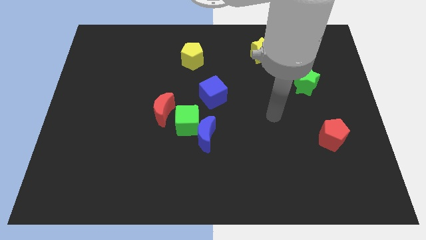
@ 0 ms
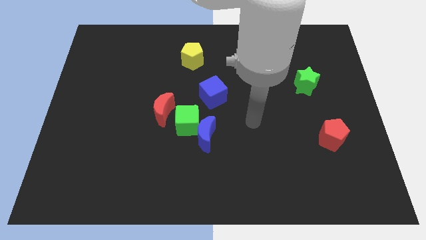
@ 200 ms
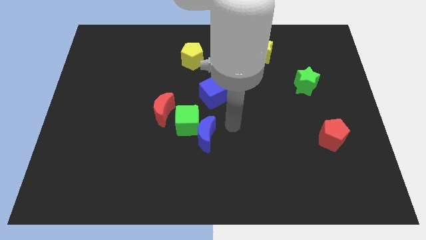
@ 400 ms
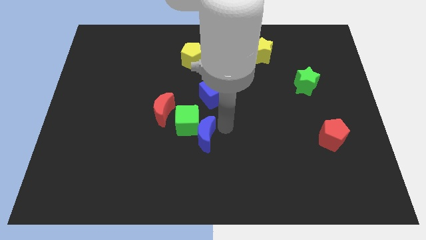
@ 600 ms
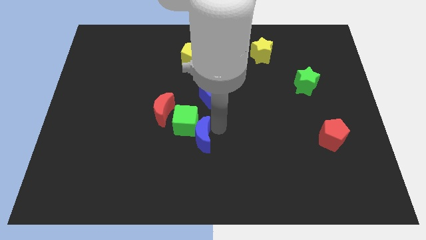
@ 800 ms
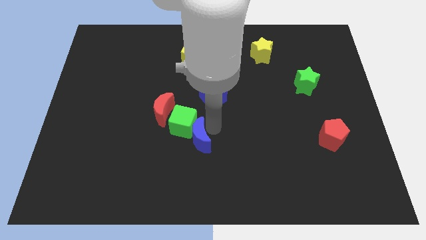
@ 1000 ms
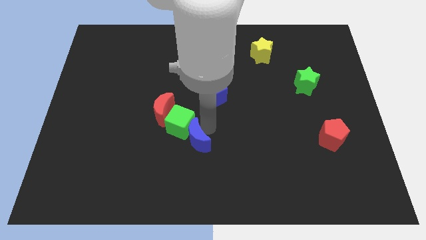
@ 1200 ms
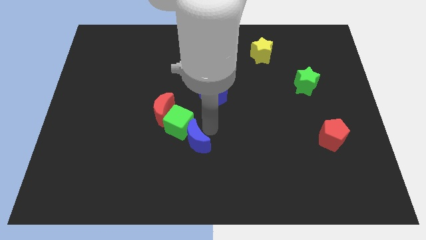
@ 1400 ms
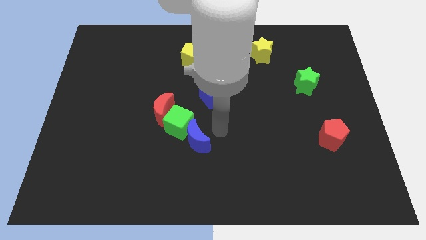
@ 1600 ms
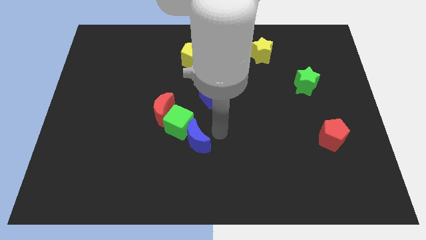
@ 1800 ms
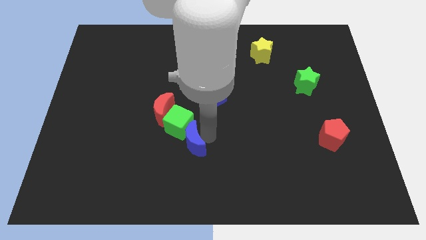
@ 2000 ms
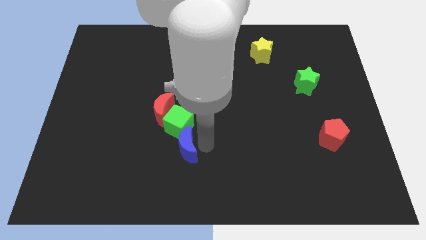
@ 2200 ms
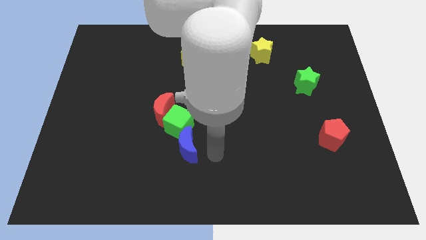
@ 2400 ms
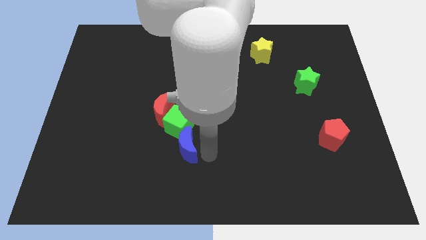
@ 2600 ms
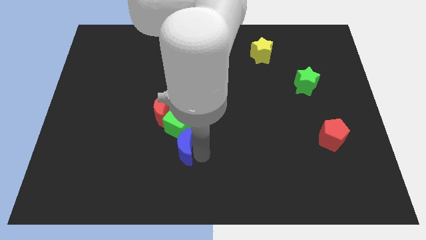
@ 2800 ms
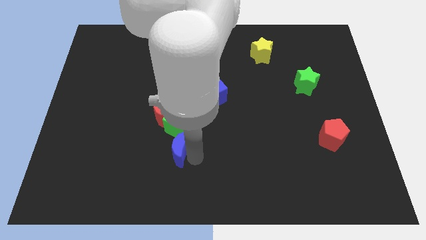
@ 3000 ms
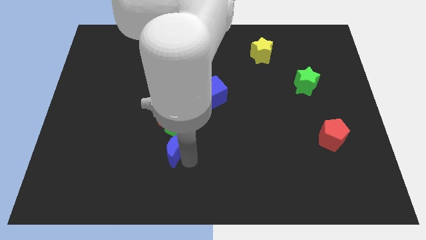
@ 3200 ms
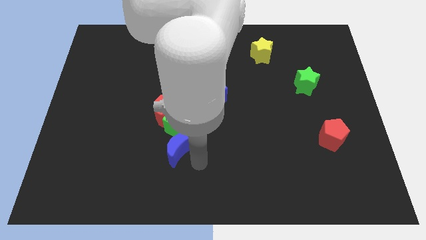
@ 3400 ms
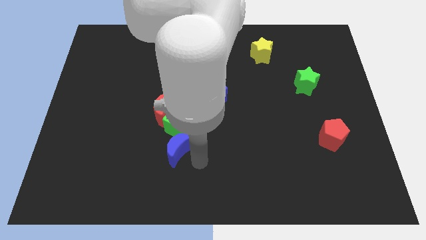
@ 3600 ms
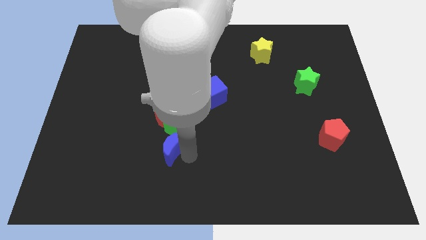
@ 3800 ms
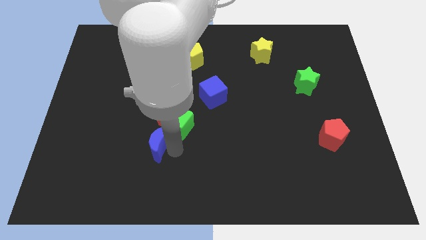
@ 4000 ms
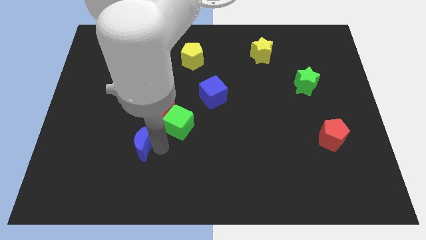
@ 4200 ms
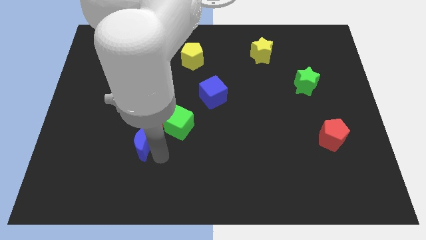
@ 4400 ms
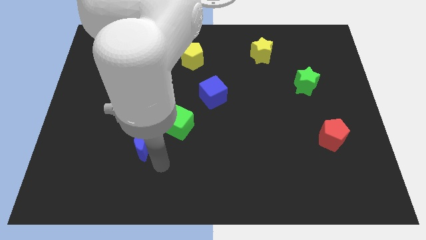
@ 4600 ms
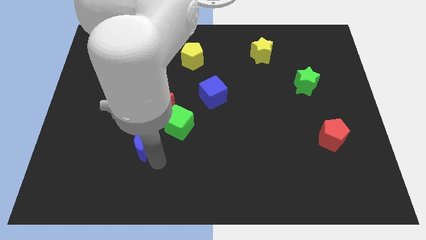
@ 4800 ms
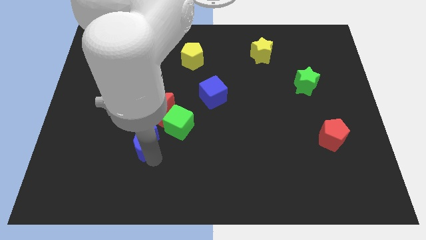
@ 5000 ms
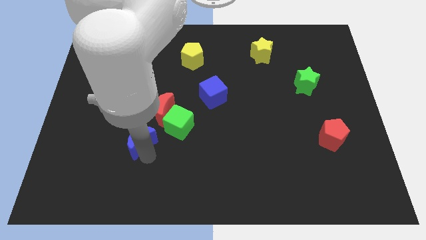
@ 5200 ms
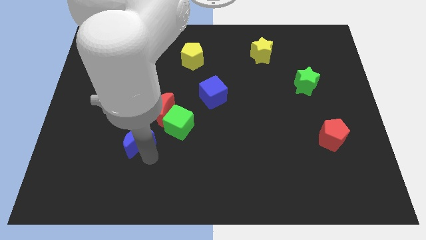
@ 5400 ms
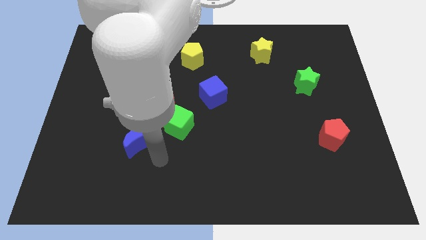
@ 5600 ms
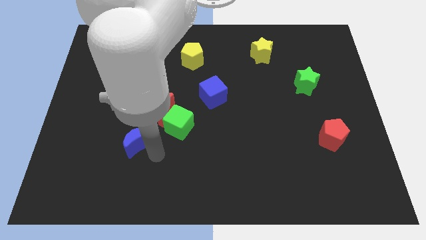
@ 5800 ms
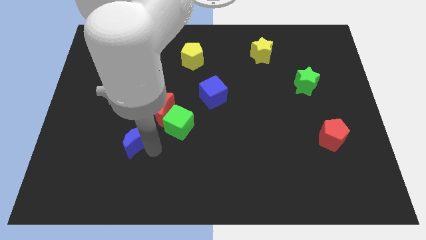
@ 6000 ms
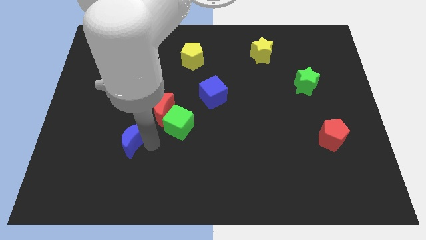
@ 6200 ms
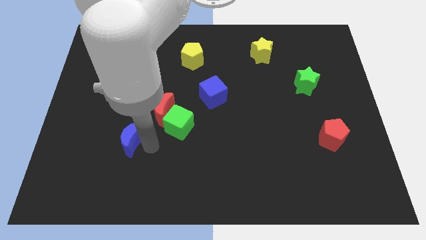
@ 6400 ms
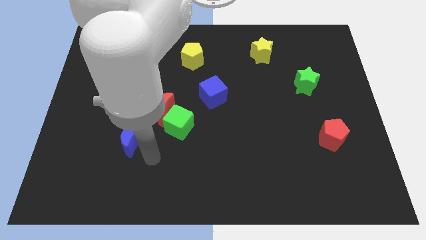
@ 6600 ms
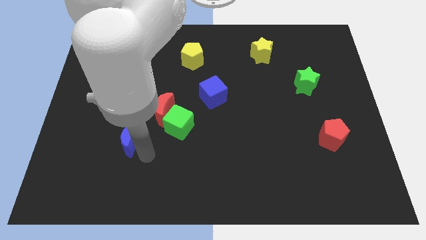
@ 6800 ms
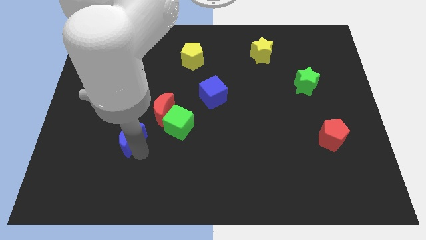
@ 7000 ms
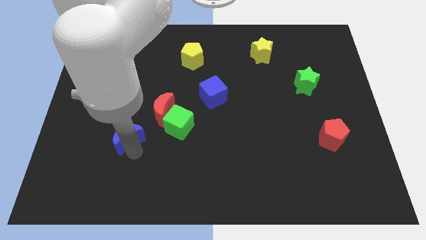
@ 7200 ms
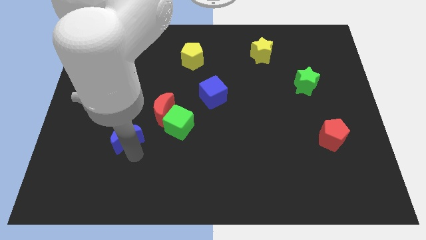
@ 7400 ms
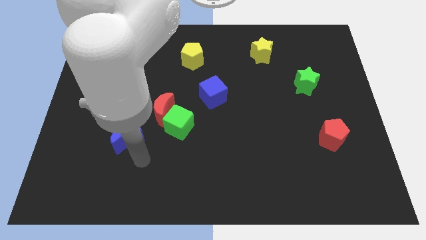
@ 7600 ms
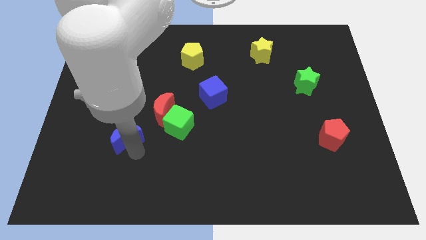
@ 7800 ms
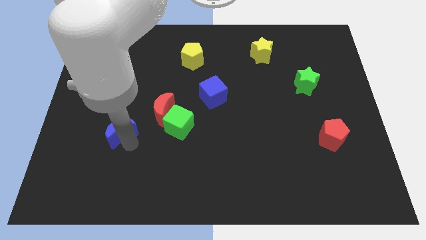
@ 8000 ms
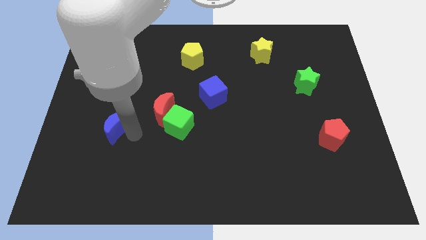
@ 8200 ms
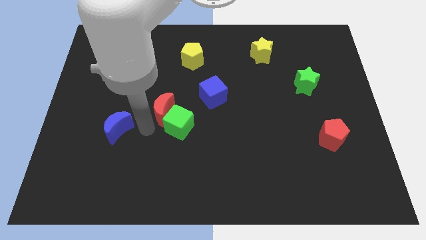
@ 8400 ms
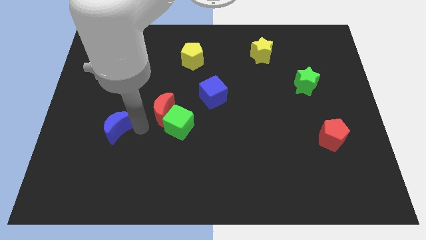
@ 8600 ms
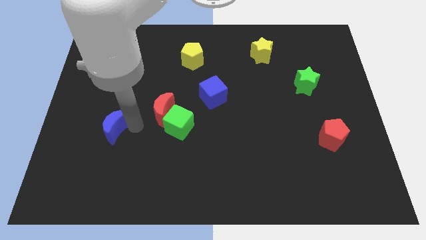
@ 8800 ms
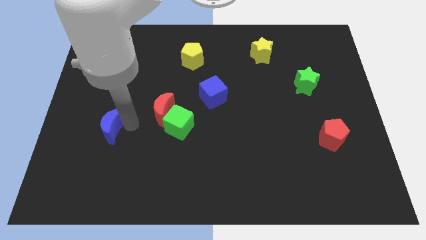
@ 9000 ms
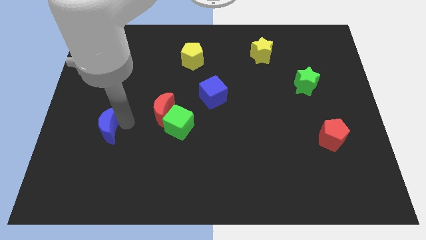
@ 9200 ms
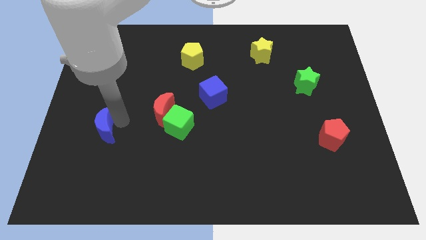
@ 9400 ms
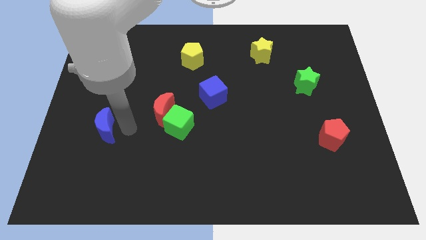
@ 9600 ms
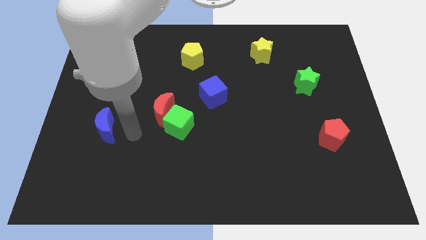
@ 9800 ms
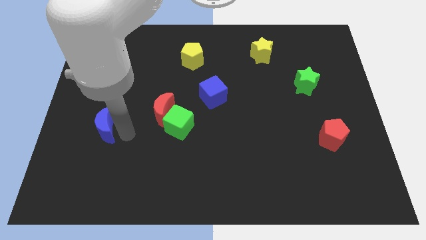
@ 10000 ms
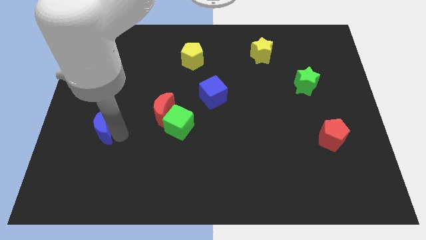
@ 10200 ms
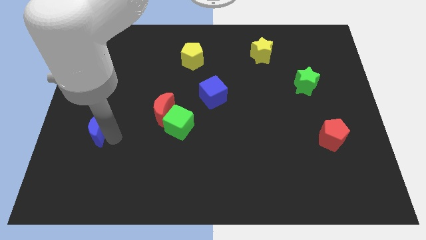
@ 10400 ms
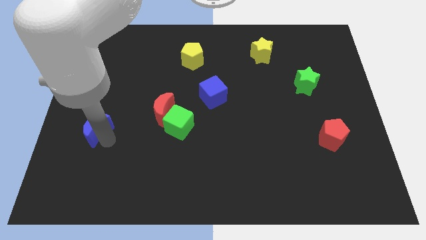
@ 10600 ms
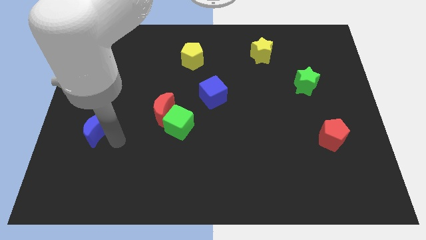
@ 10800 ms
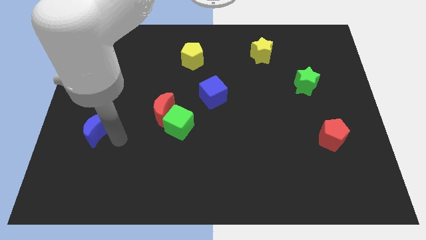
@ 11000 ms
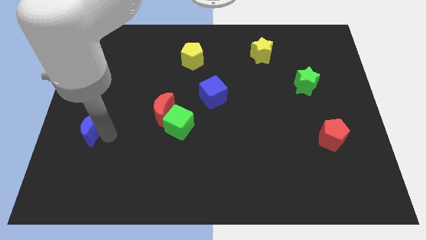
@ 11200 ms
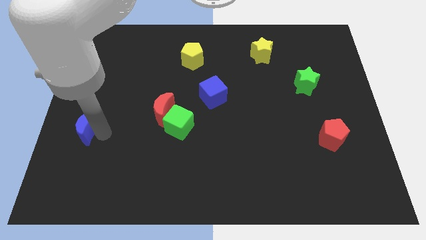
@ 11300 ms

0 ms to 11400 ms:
put the blue moon to the left side

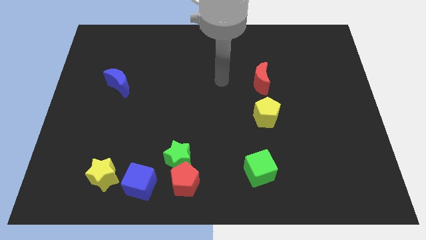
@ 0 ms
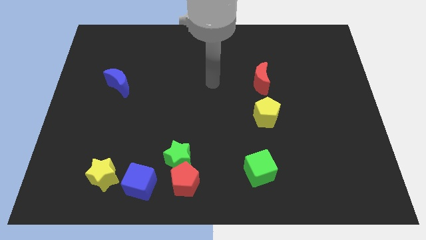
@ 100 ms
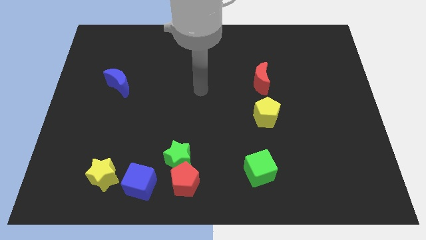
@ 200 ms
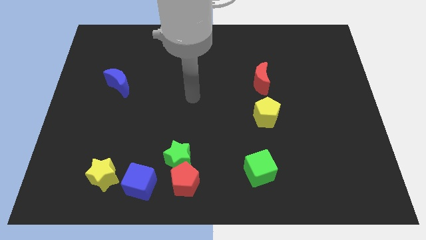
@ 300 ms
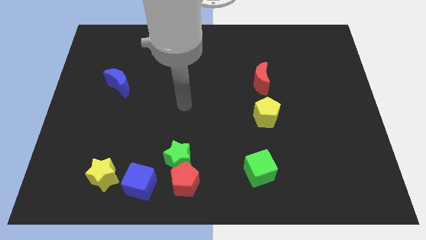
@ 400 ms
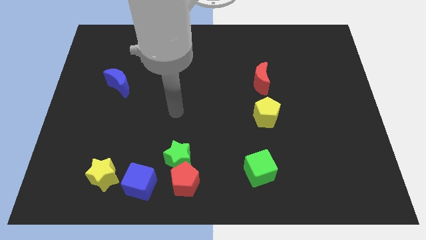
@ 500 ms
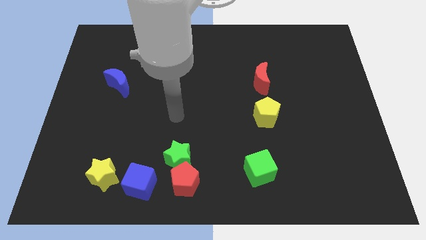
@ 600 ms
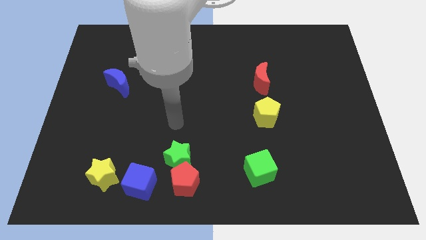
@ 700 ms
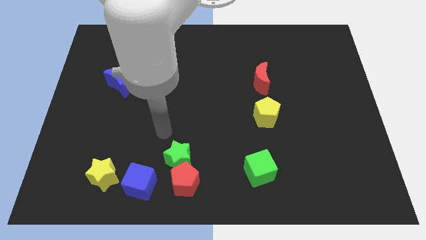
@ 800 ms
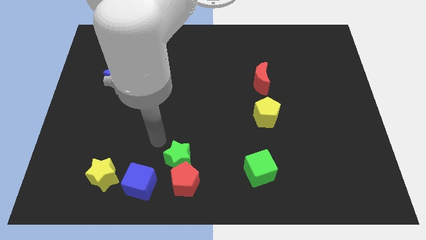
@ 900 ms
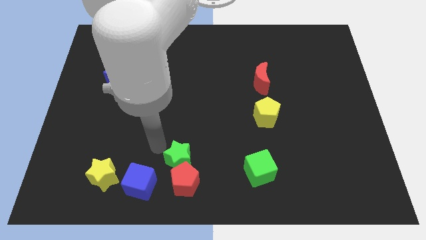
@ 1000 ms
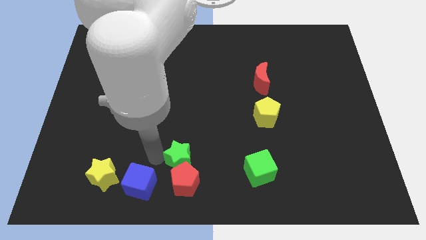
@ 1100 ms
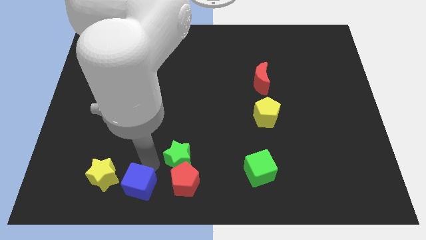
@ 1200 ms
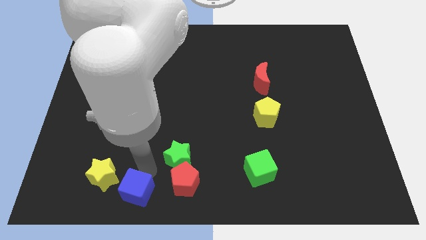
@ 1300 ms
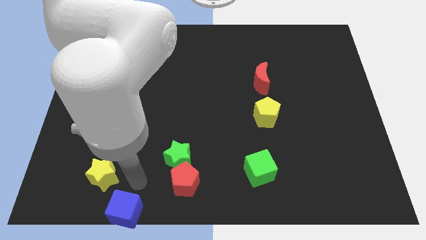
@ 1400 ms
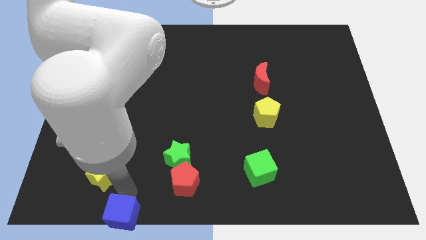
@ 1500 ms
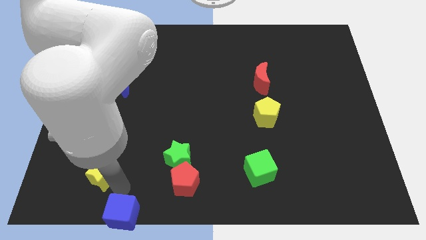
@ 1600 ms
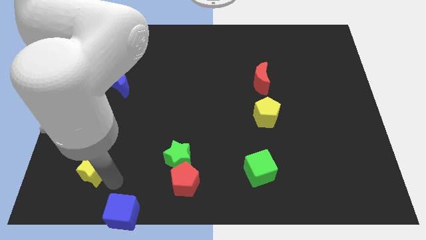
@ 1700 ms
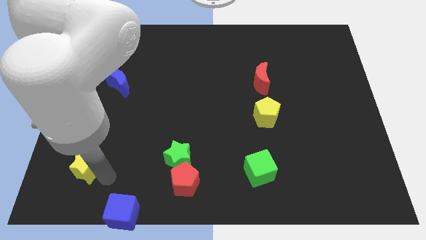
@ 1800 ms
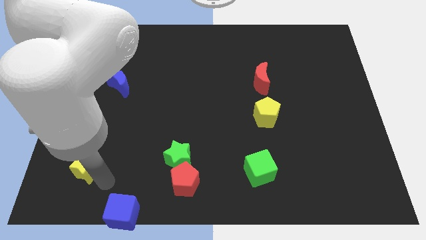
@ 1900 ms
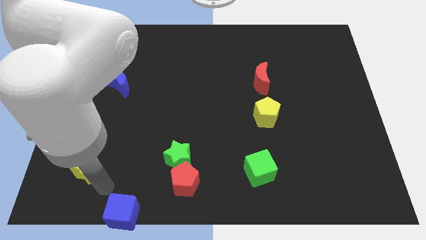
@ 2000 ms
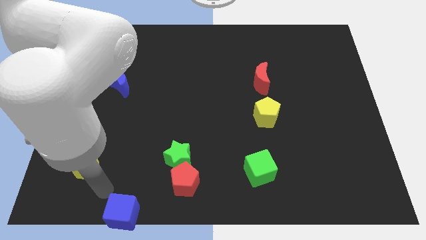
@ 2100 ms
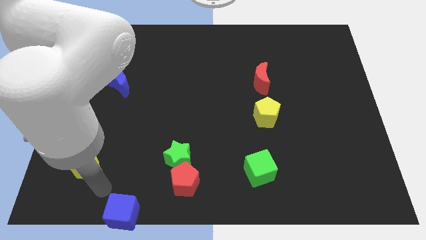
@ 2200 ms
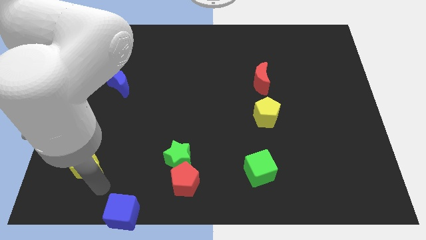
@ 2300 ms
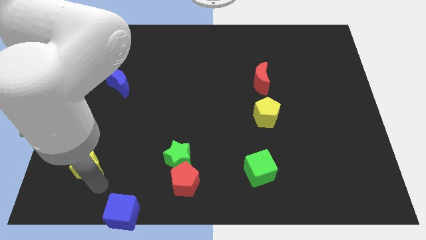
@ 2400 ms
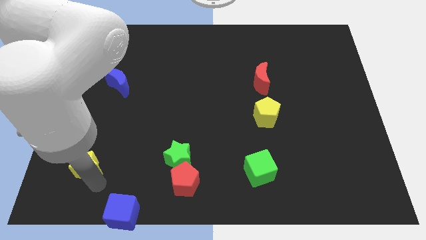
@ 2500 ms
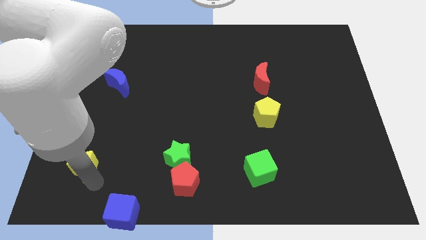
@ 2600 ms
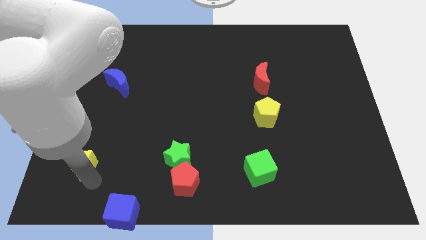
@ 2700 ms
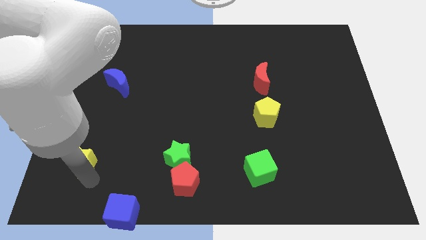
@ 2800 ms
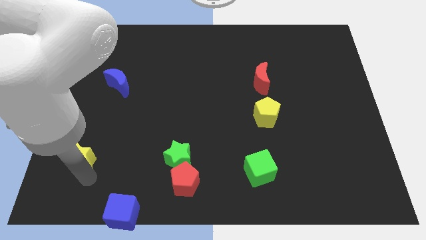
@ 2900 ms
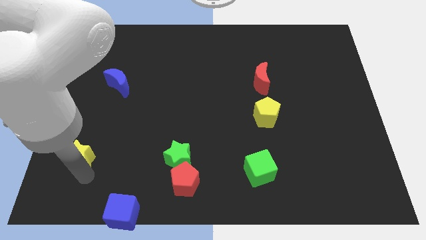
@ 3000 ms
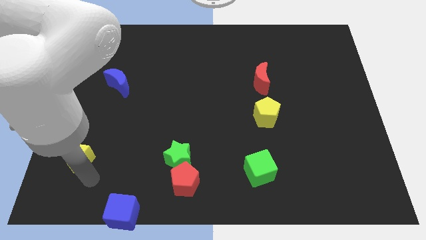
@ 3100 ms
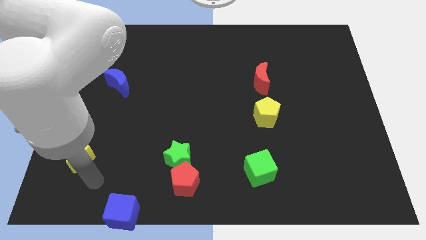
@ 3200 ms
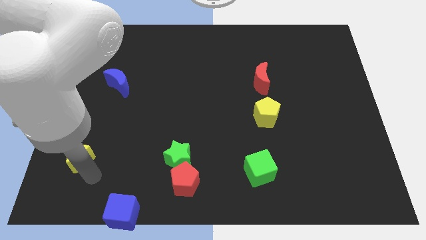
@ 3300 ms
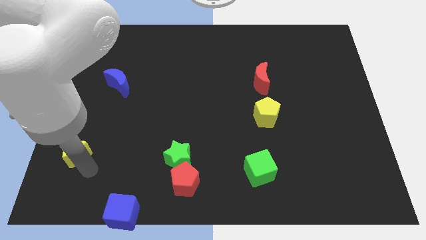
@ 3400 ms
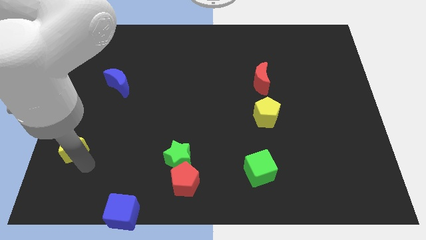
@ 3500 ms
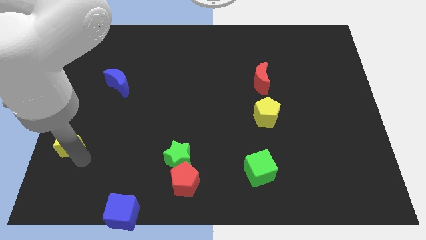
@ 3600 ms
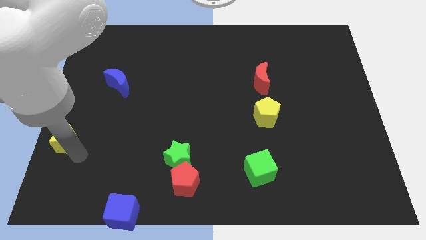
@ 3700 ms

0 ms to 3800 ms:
move the yellow star to the left side
